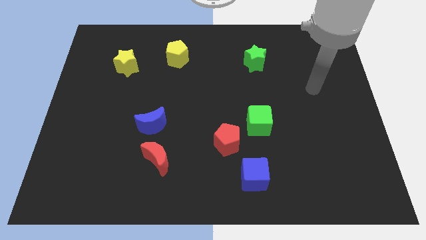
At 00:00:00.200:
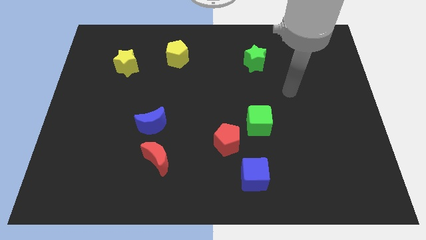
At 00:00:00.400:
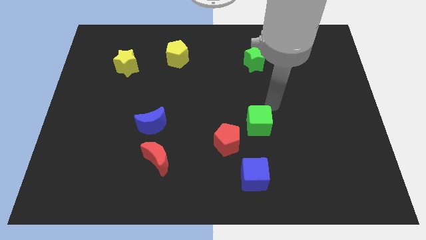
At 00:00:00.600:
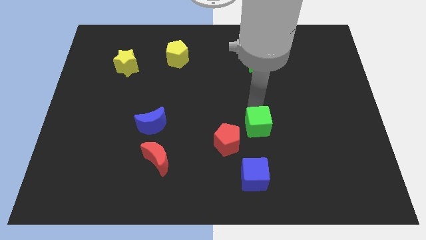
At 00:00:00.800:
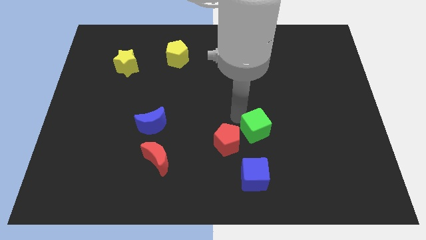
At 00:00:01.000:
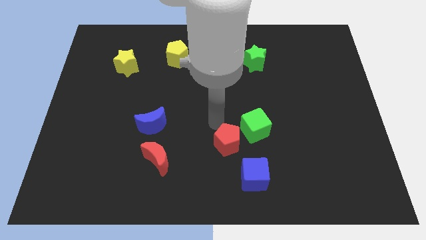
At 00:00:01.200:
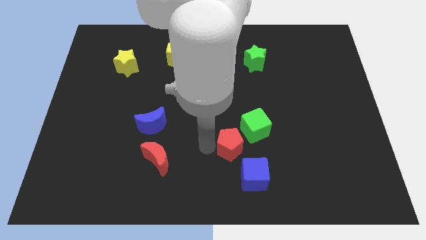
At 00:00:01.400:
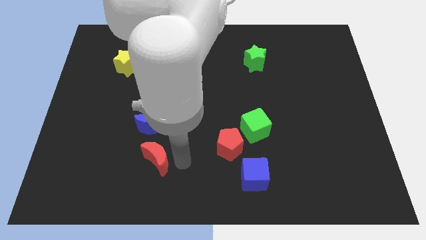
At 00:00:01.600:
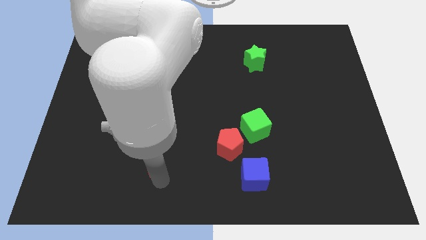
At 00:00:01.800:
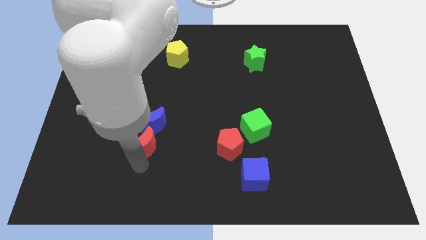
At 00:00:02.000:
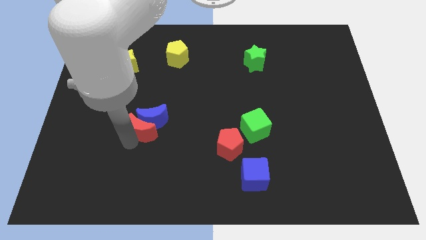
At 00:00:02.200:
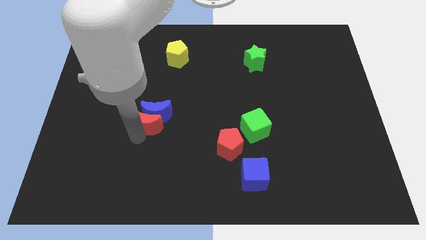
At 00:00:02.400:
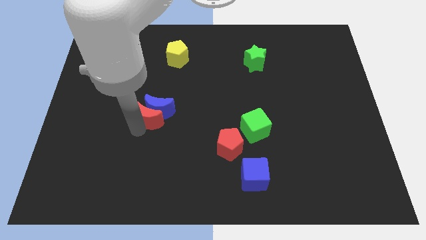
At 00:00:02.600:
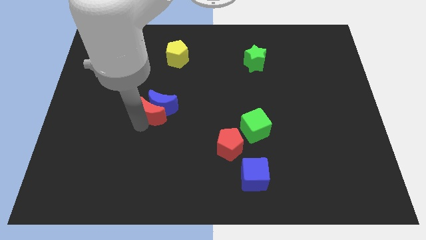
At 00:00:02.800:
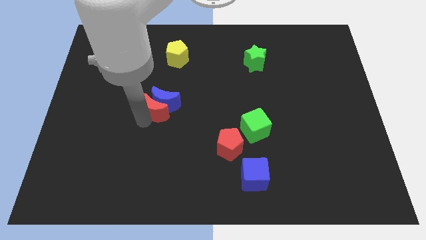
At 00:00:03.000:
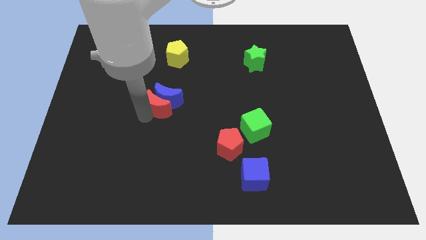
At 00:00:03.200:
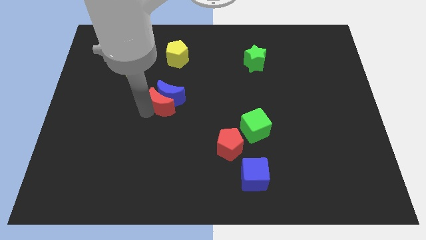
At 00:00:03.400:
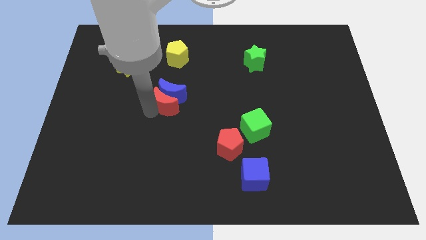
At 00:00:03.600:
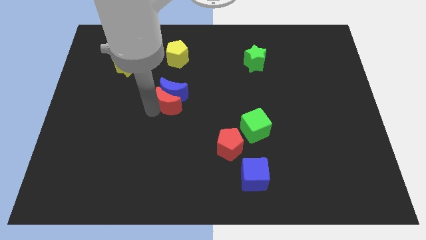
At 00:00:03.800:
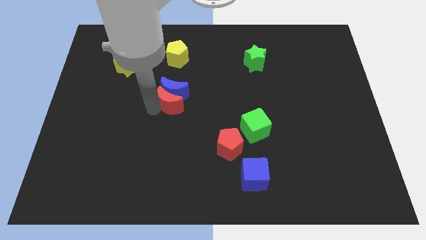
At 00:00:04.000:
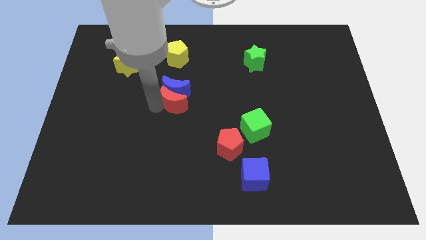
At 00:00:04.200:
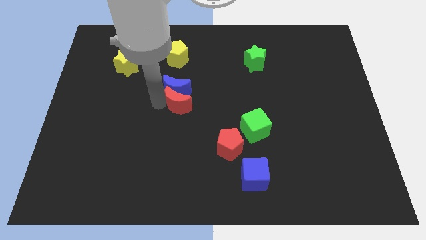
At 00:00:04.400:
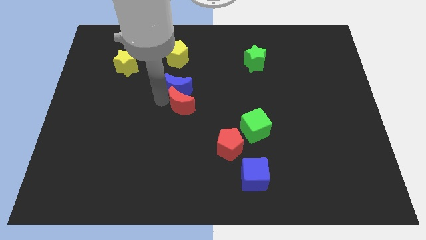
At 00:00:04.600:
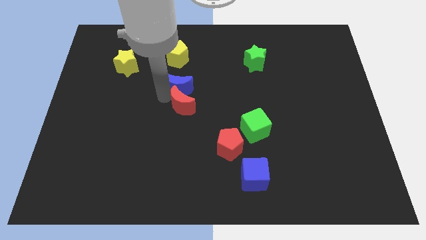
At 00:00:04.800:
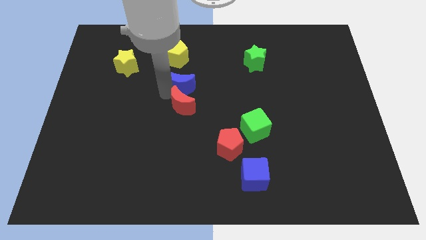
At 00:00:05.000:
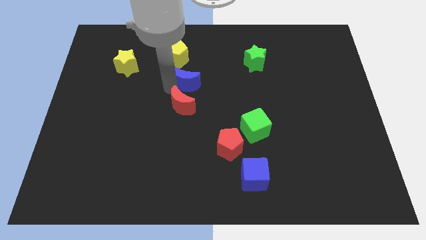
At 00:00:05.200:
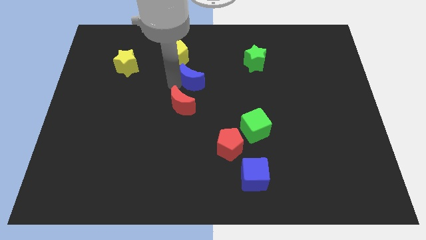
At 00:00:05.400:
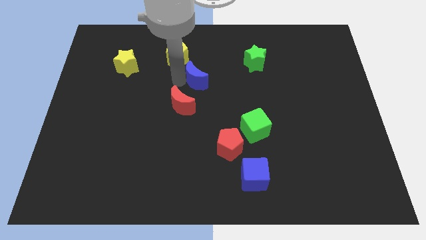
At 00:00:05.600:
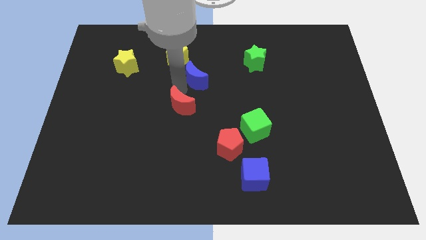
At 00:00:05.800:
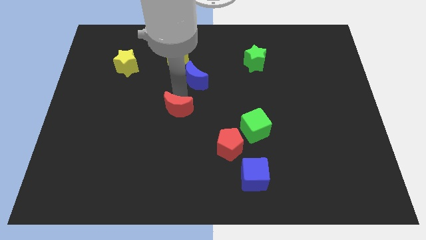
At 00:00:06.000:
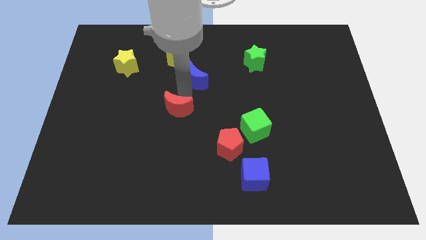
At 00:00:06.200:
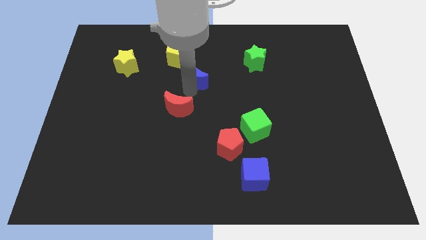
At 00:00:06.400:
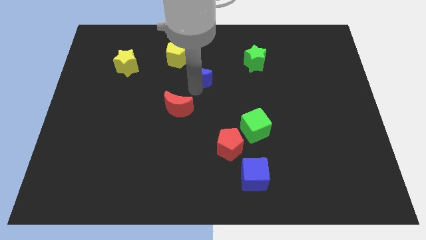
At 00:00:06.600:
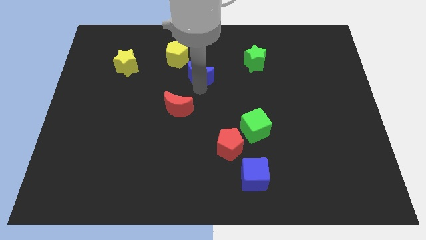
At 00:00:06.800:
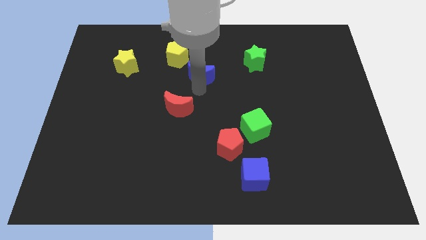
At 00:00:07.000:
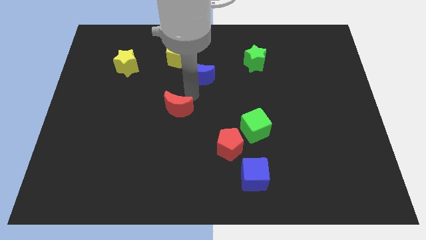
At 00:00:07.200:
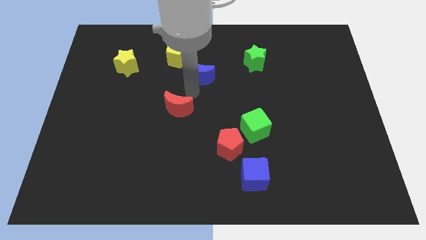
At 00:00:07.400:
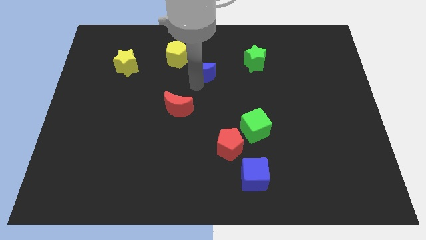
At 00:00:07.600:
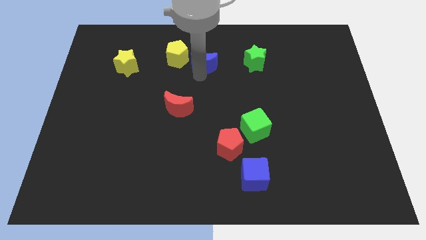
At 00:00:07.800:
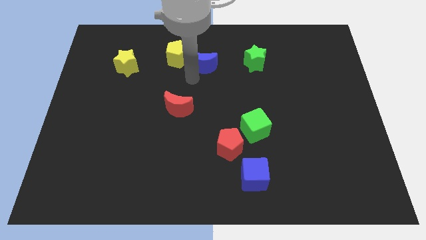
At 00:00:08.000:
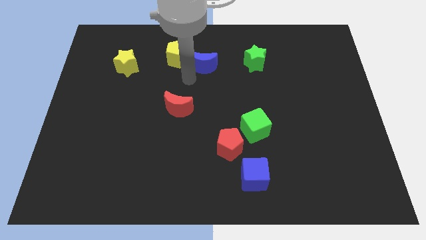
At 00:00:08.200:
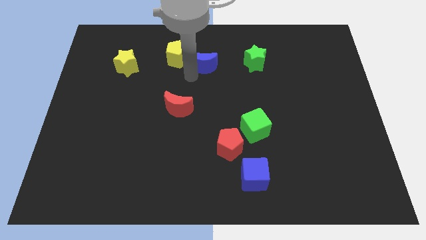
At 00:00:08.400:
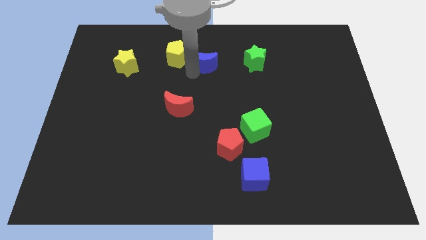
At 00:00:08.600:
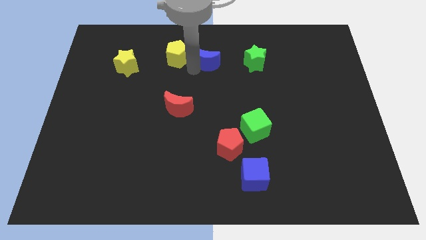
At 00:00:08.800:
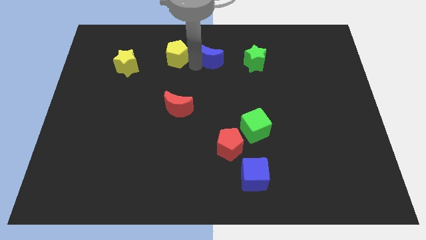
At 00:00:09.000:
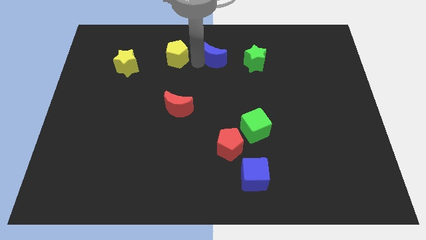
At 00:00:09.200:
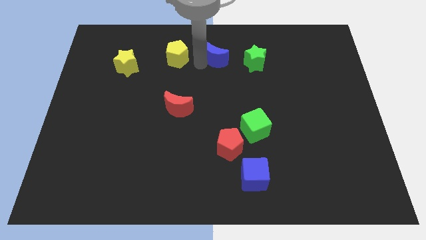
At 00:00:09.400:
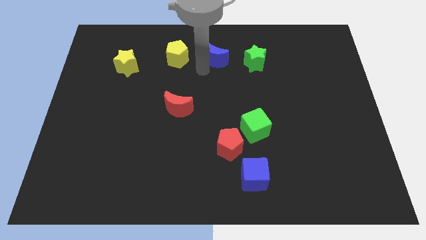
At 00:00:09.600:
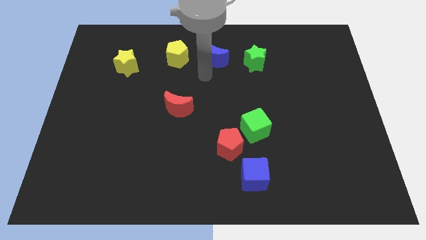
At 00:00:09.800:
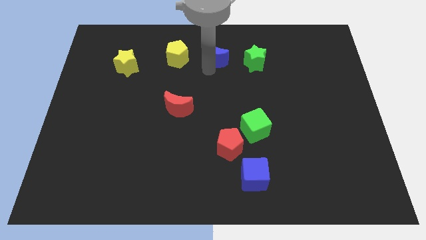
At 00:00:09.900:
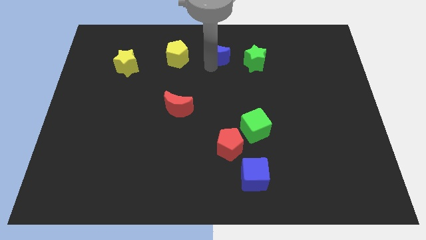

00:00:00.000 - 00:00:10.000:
slide the blue moon to the top

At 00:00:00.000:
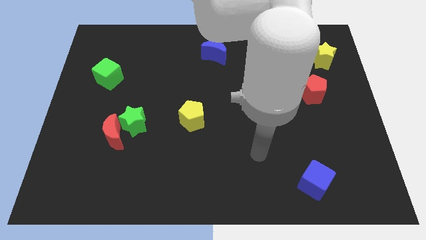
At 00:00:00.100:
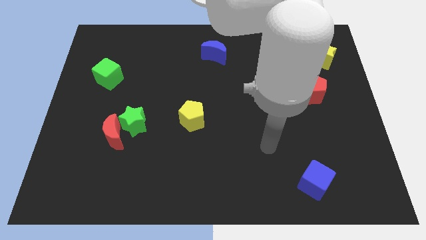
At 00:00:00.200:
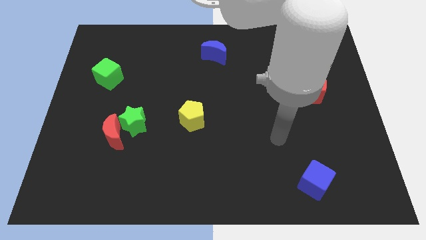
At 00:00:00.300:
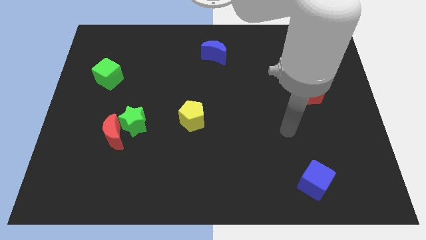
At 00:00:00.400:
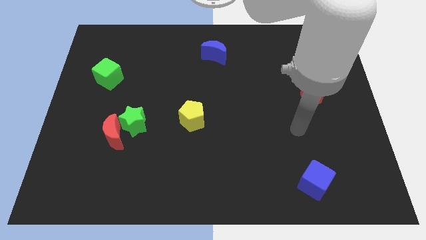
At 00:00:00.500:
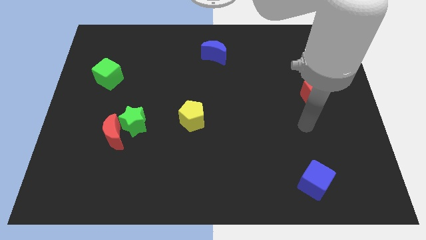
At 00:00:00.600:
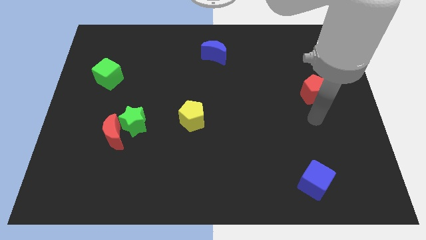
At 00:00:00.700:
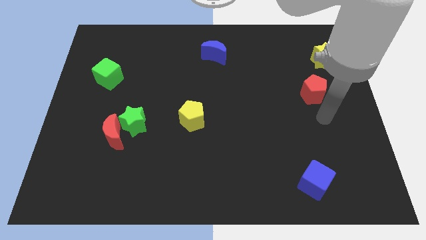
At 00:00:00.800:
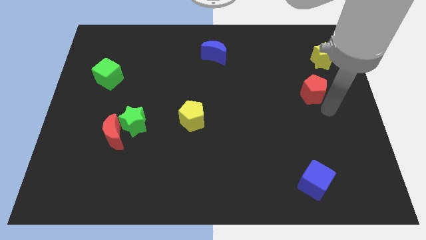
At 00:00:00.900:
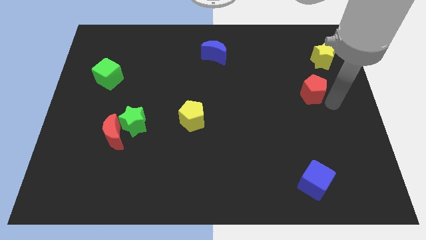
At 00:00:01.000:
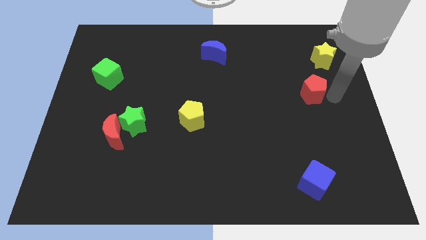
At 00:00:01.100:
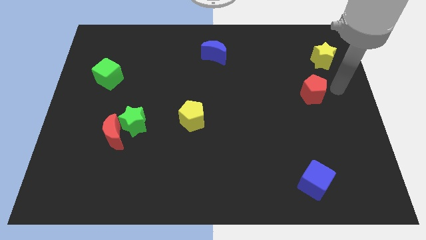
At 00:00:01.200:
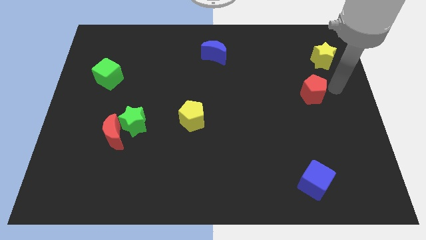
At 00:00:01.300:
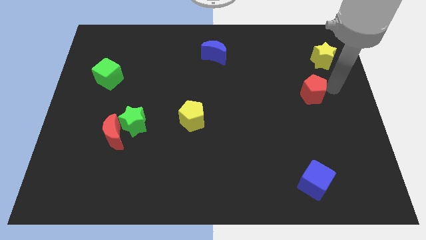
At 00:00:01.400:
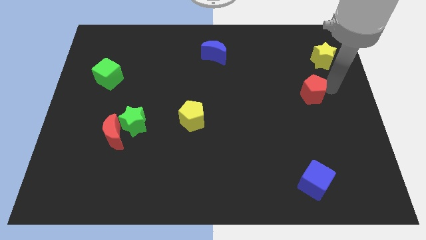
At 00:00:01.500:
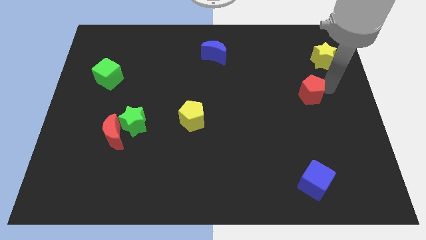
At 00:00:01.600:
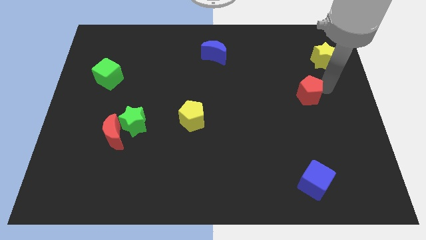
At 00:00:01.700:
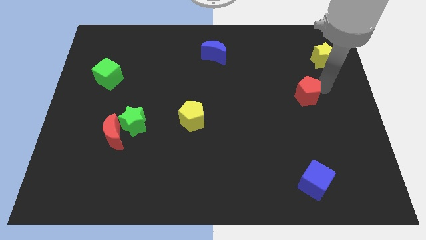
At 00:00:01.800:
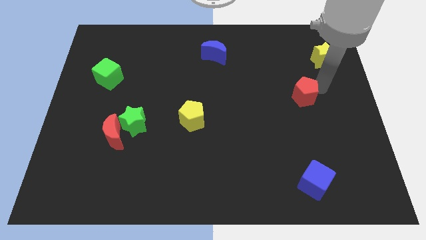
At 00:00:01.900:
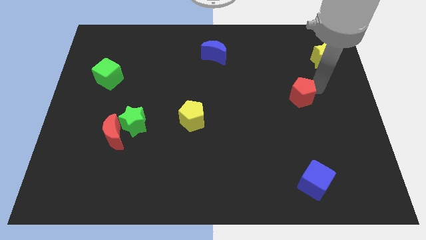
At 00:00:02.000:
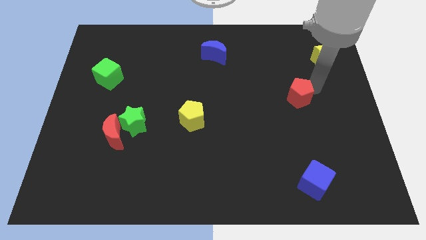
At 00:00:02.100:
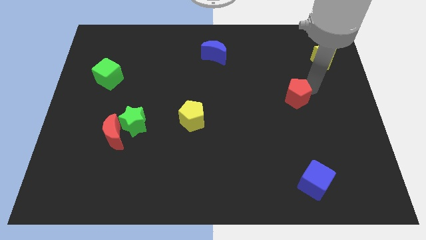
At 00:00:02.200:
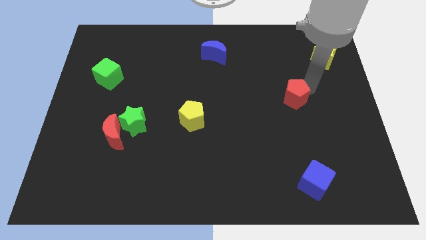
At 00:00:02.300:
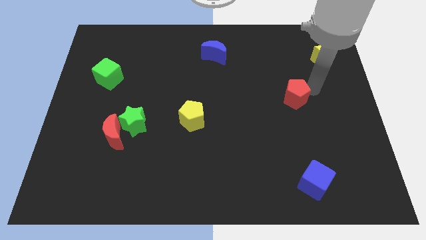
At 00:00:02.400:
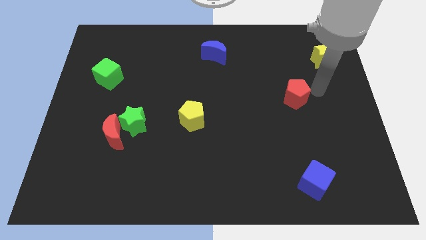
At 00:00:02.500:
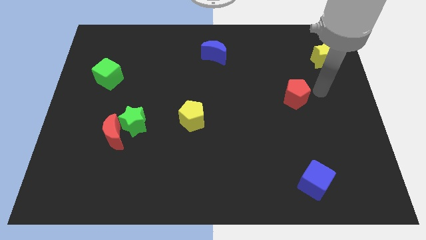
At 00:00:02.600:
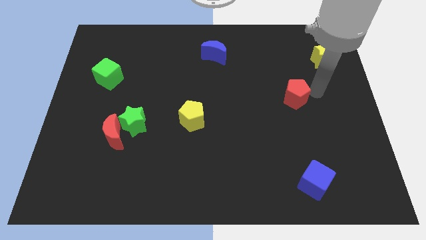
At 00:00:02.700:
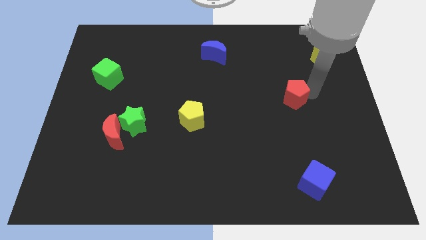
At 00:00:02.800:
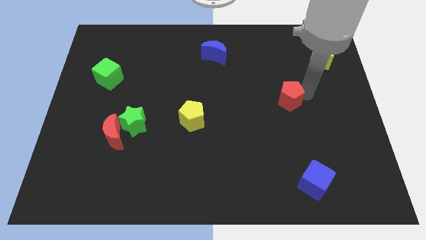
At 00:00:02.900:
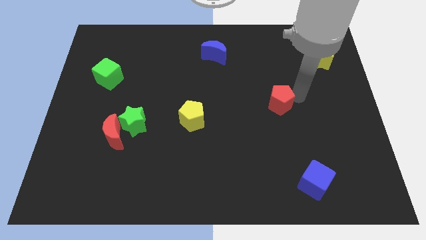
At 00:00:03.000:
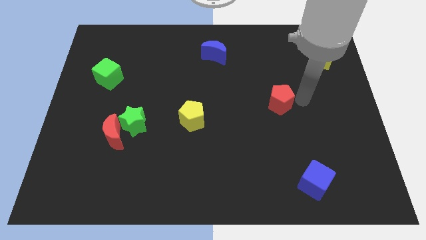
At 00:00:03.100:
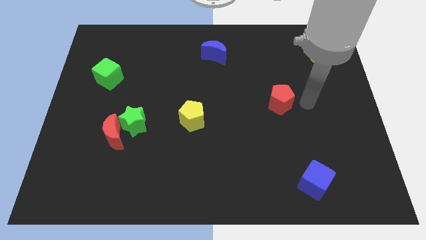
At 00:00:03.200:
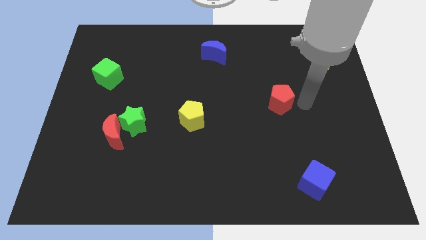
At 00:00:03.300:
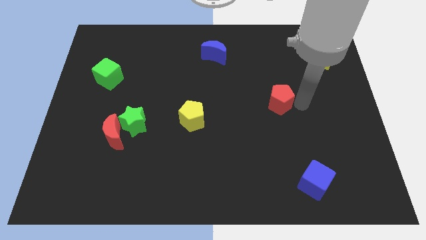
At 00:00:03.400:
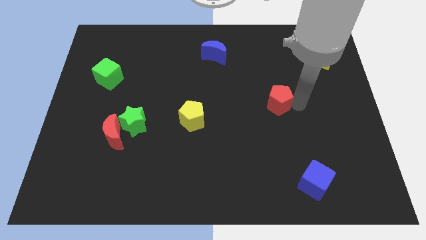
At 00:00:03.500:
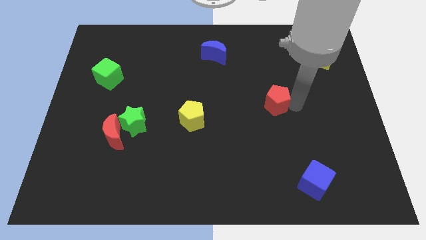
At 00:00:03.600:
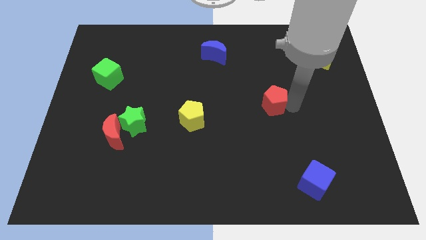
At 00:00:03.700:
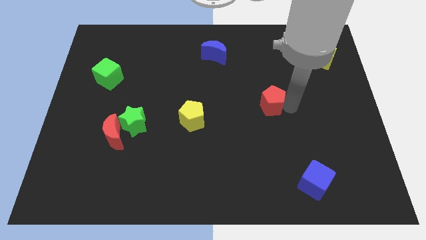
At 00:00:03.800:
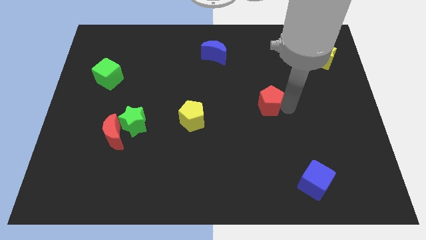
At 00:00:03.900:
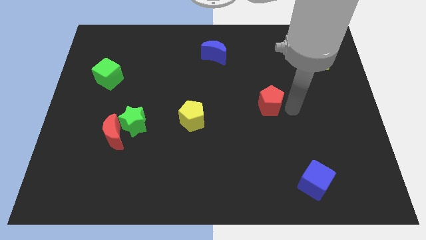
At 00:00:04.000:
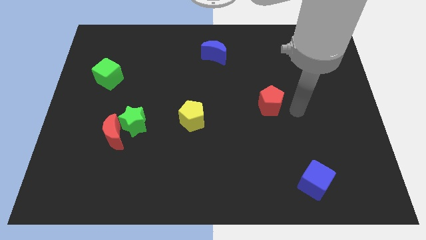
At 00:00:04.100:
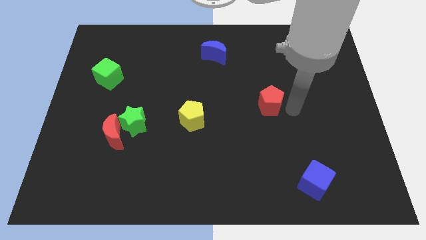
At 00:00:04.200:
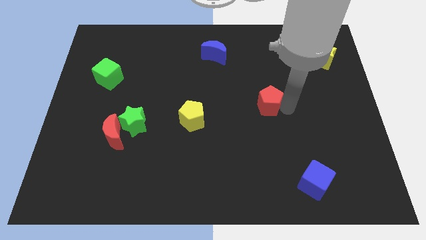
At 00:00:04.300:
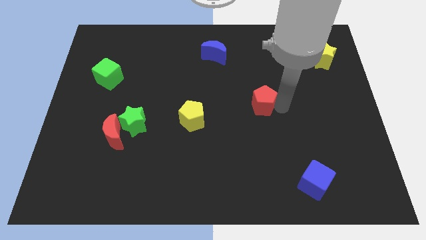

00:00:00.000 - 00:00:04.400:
push the red pentagon to the center of the board
